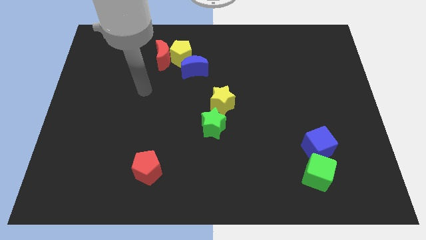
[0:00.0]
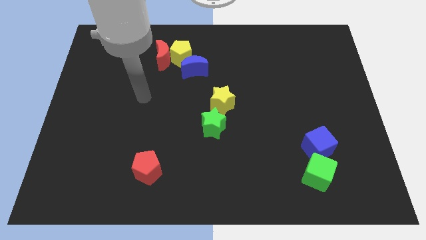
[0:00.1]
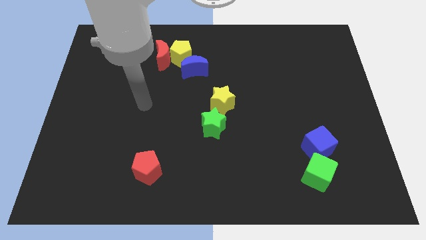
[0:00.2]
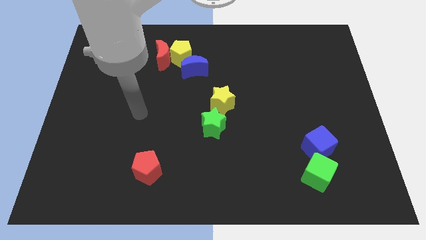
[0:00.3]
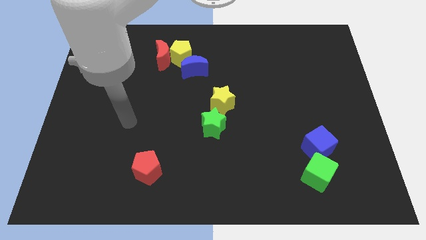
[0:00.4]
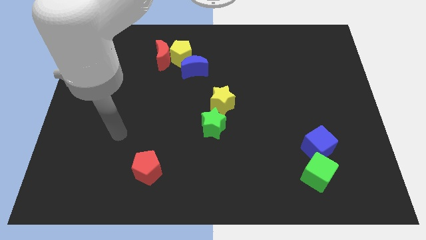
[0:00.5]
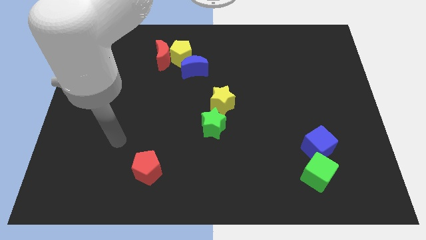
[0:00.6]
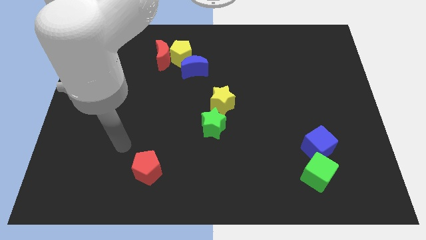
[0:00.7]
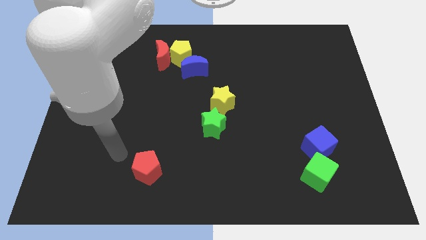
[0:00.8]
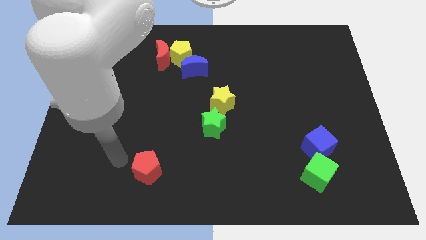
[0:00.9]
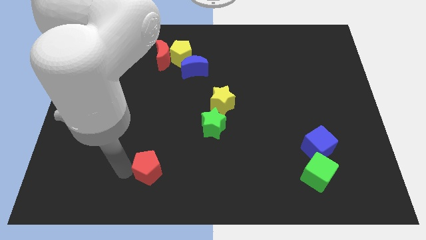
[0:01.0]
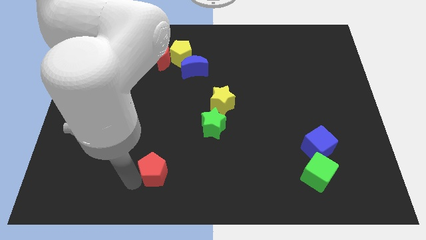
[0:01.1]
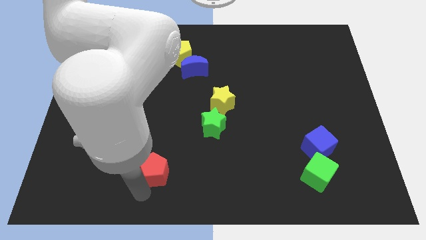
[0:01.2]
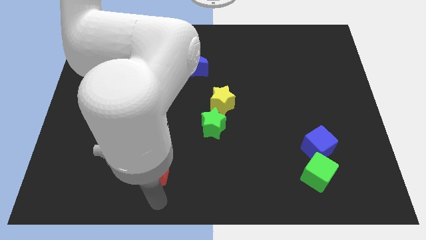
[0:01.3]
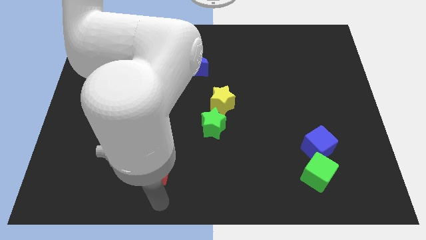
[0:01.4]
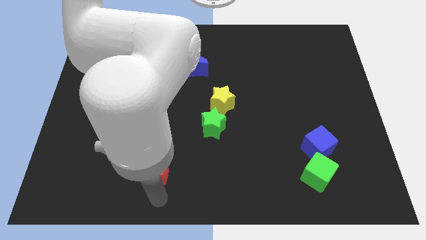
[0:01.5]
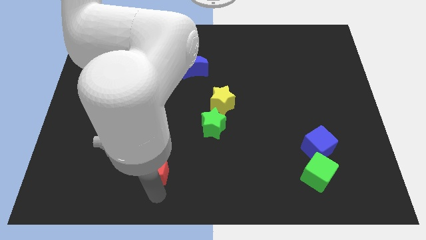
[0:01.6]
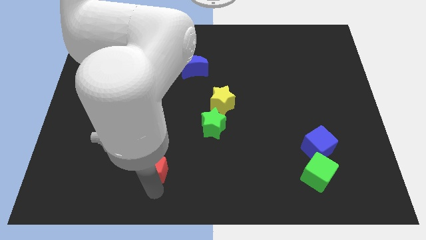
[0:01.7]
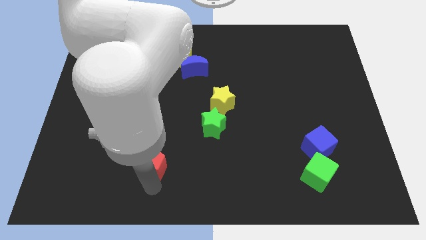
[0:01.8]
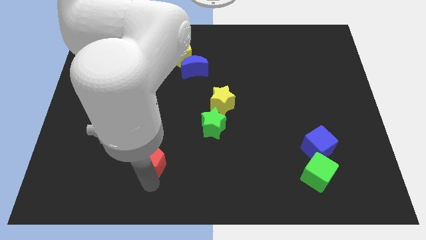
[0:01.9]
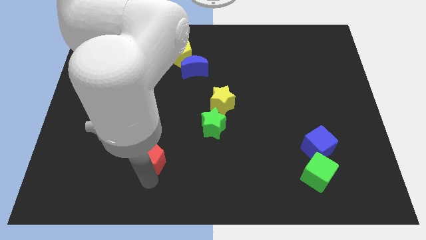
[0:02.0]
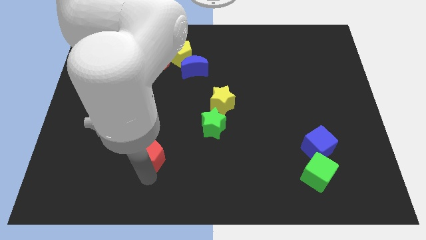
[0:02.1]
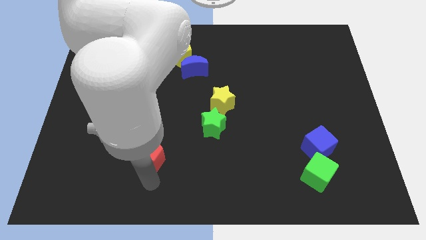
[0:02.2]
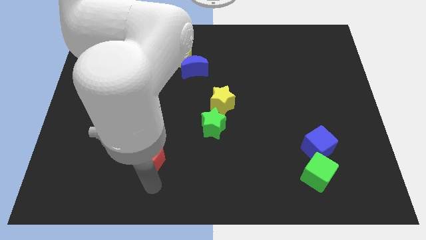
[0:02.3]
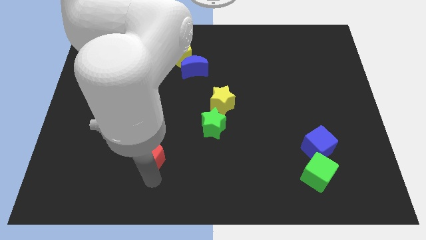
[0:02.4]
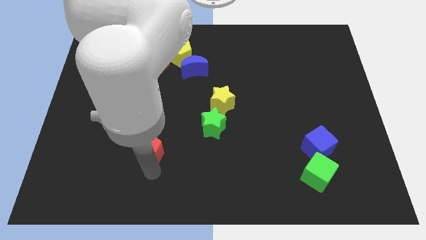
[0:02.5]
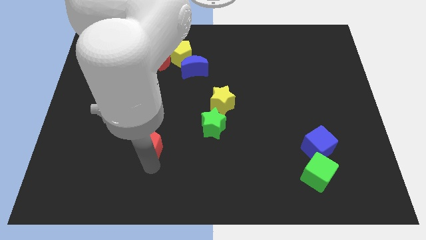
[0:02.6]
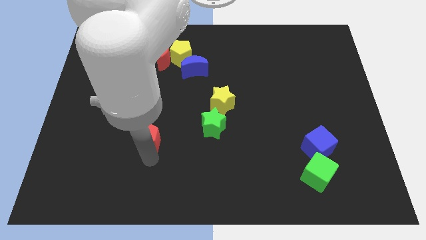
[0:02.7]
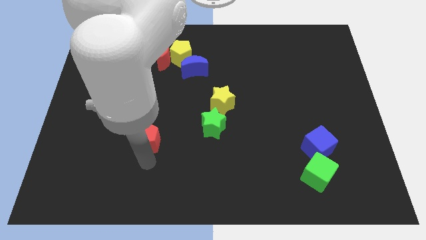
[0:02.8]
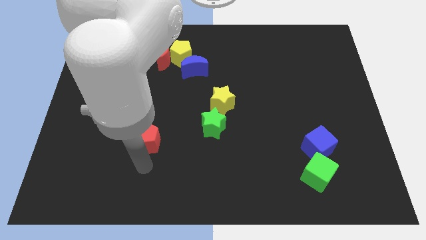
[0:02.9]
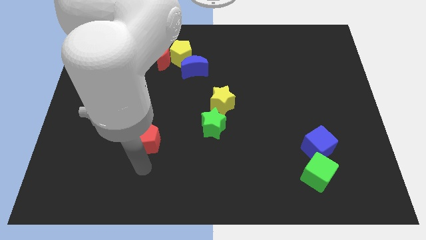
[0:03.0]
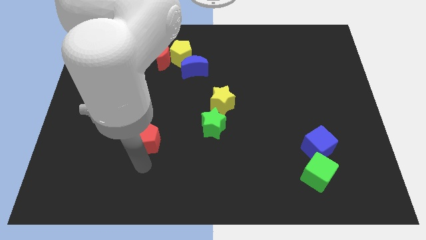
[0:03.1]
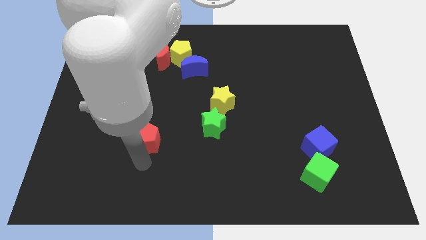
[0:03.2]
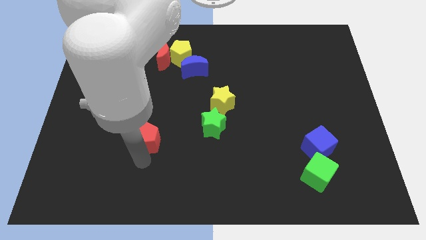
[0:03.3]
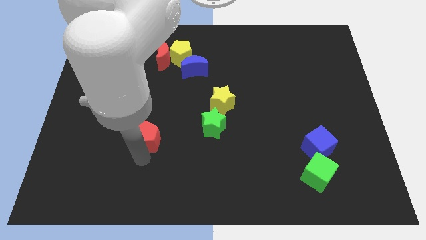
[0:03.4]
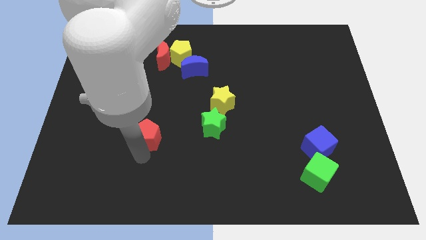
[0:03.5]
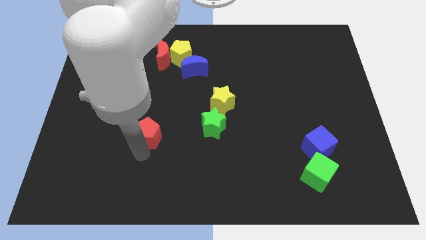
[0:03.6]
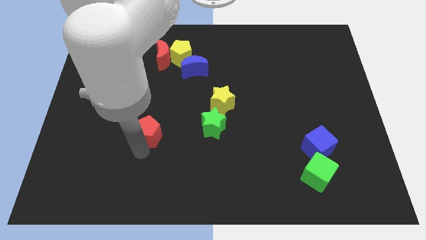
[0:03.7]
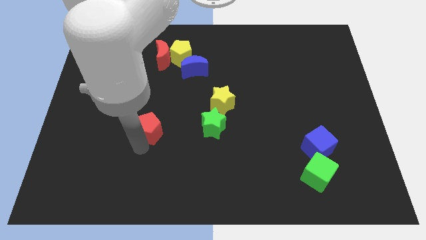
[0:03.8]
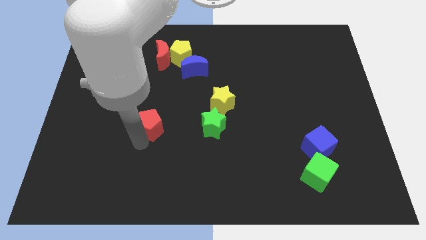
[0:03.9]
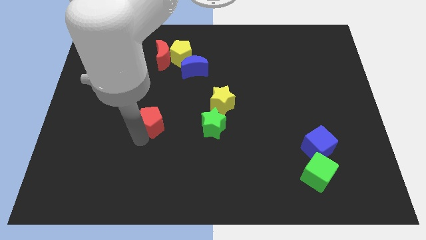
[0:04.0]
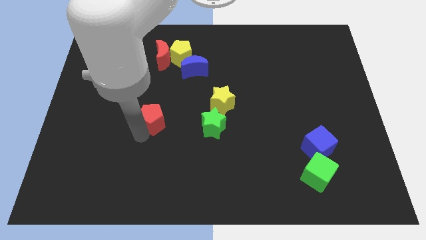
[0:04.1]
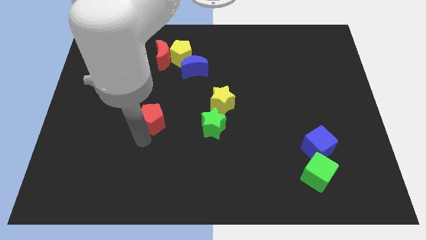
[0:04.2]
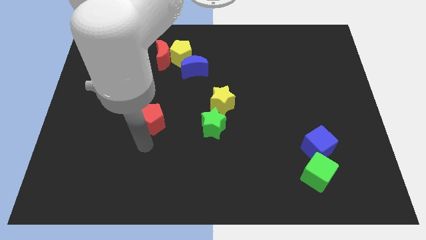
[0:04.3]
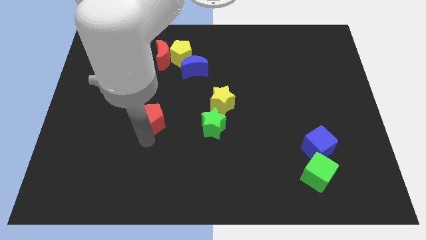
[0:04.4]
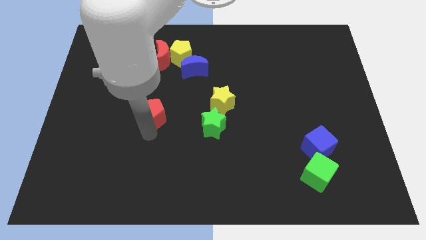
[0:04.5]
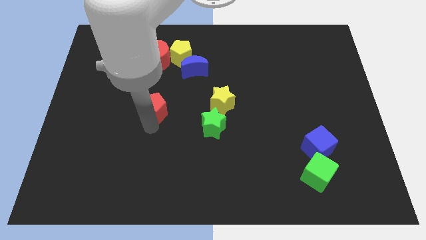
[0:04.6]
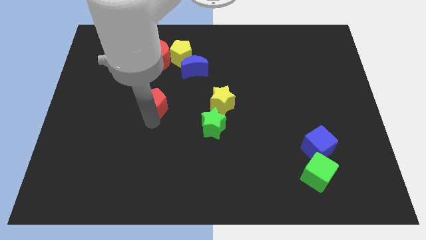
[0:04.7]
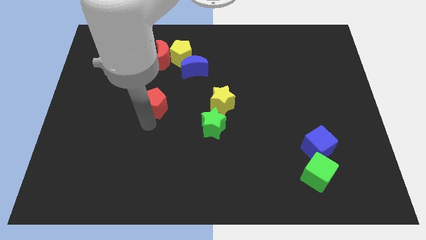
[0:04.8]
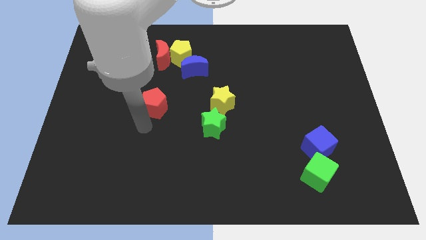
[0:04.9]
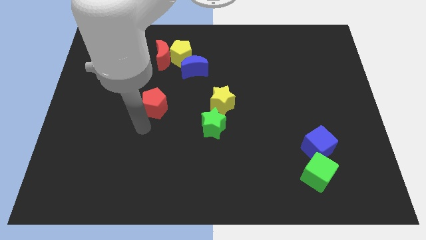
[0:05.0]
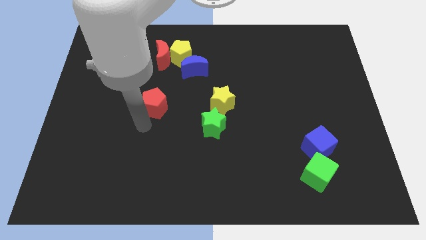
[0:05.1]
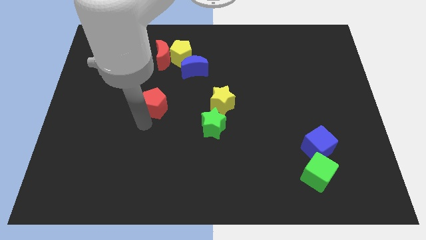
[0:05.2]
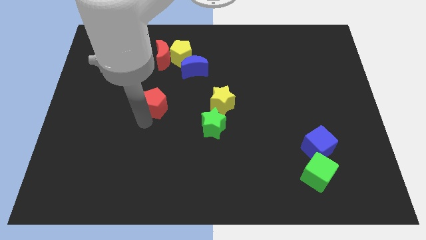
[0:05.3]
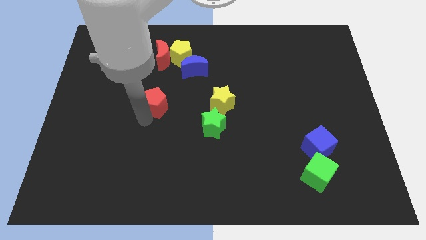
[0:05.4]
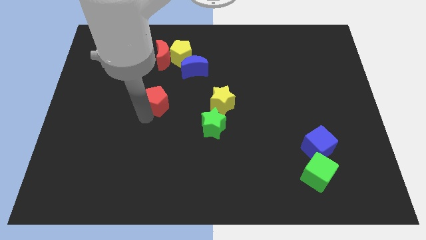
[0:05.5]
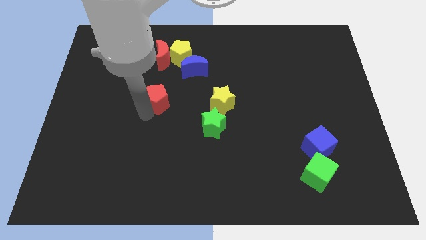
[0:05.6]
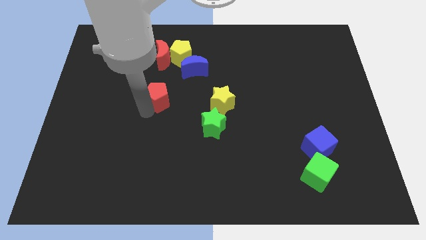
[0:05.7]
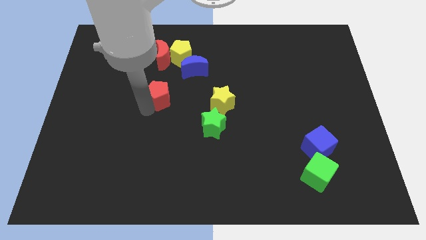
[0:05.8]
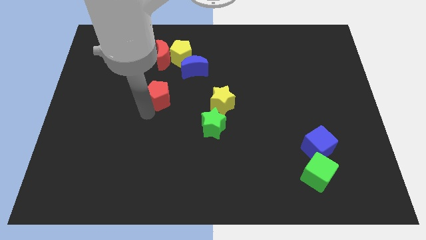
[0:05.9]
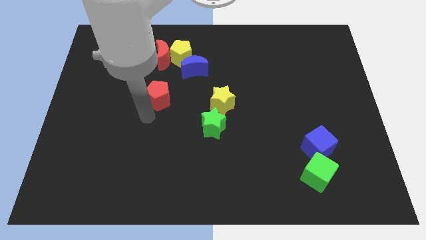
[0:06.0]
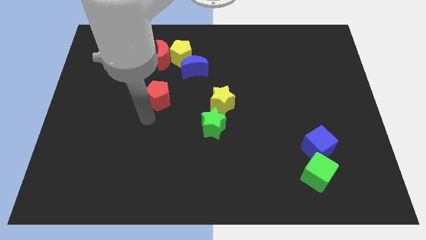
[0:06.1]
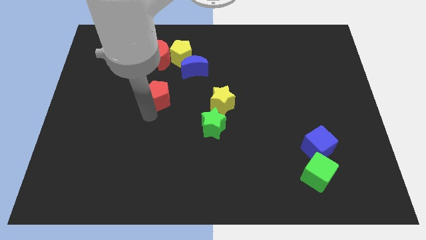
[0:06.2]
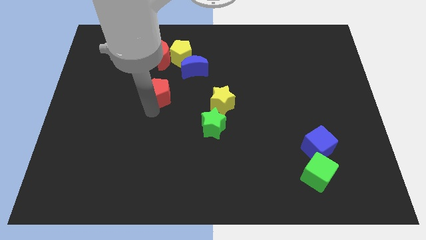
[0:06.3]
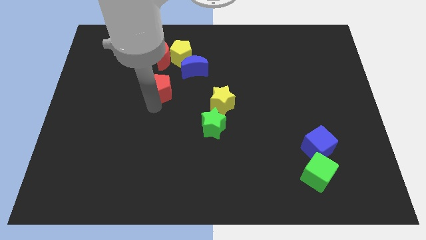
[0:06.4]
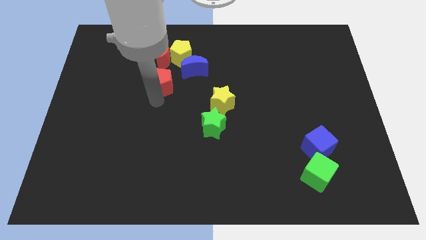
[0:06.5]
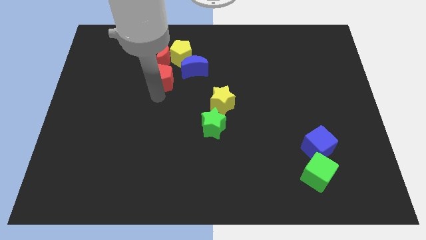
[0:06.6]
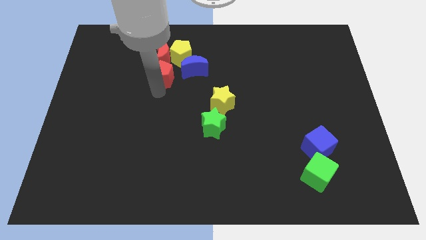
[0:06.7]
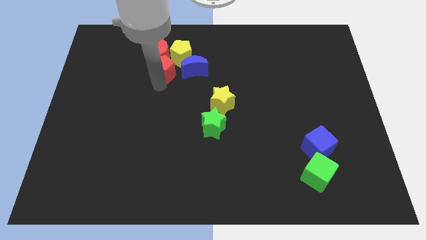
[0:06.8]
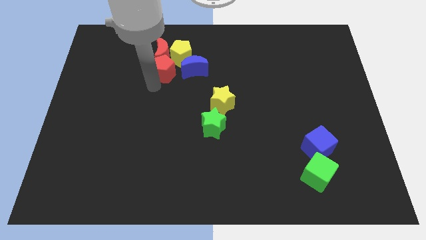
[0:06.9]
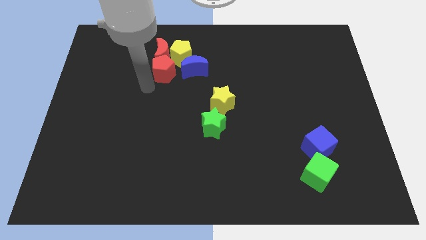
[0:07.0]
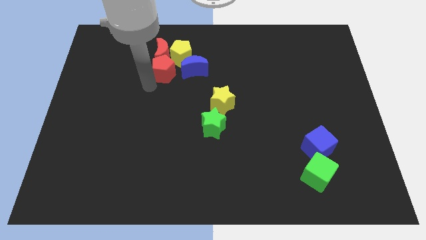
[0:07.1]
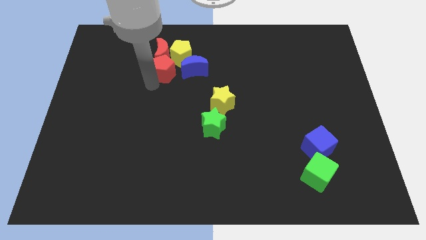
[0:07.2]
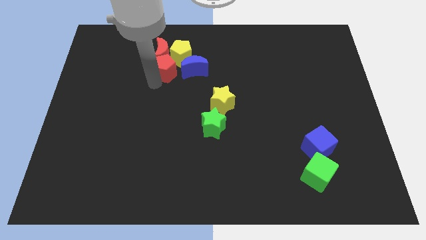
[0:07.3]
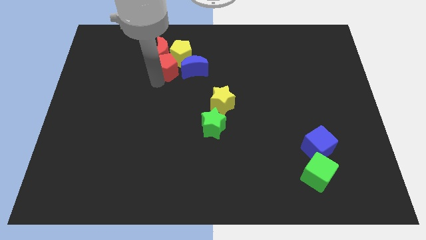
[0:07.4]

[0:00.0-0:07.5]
put the red pentagon towards the yellow pentagon
